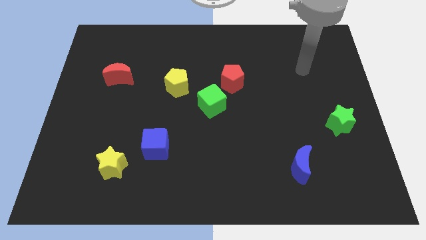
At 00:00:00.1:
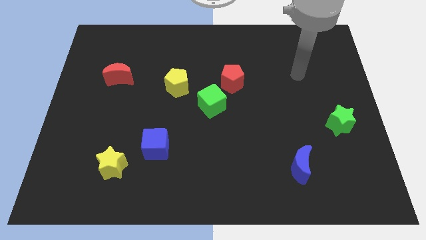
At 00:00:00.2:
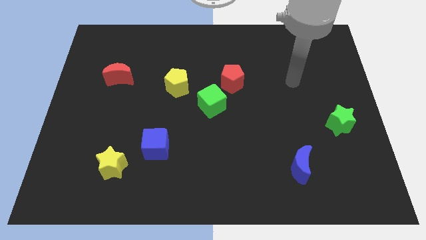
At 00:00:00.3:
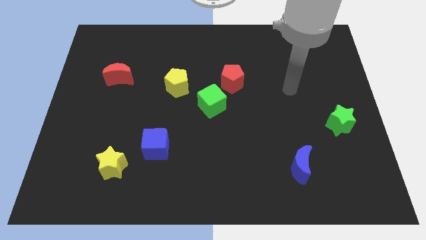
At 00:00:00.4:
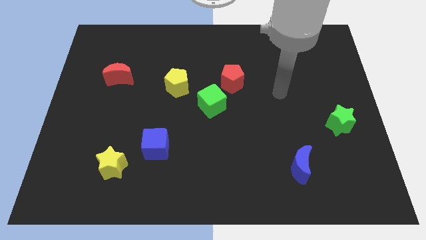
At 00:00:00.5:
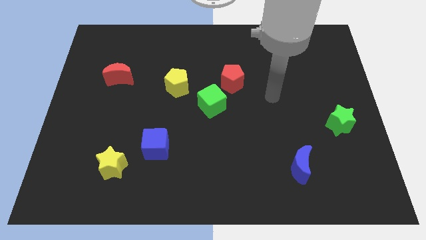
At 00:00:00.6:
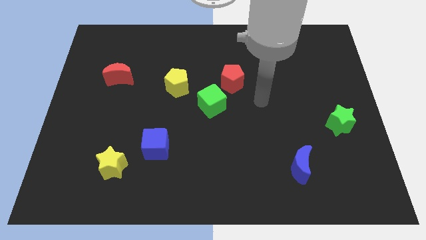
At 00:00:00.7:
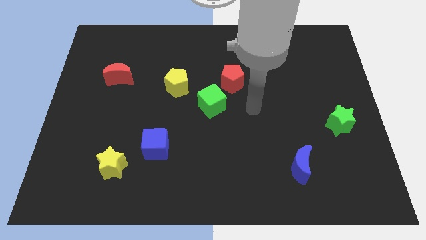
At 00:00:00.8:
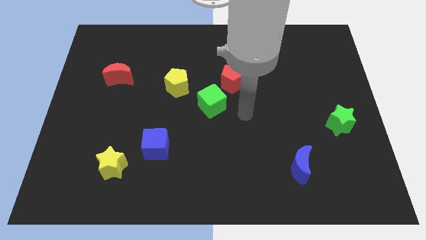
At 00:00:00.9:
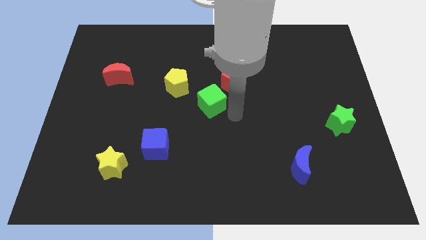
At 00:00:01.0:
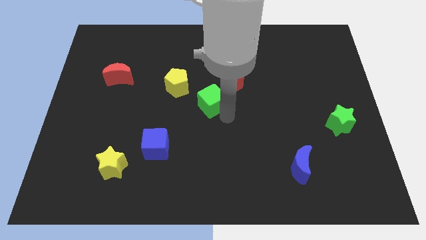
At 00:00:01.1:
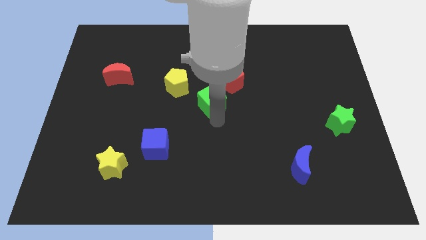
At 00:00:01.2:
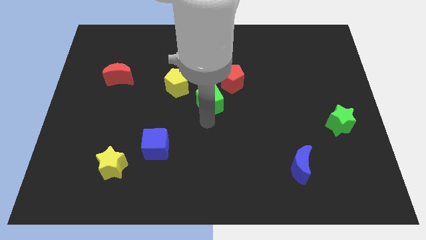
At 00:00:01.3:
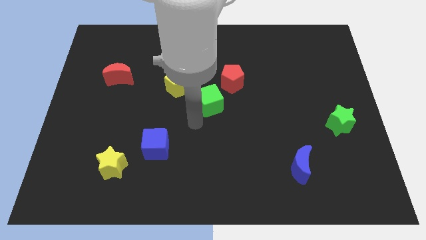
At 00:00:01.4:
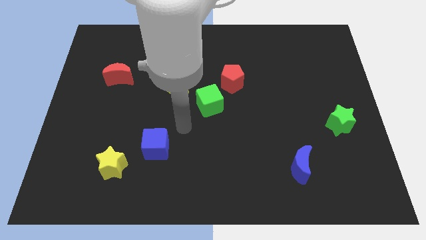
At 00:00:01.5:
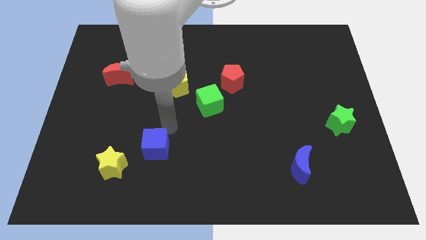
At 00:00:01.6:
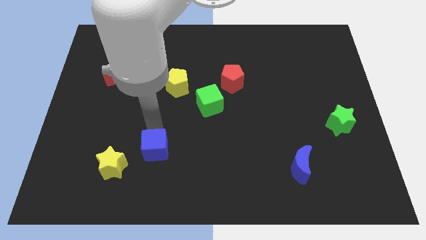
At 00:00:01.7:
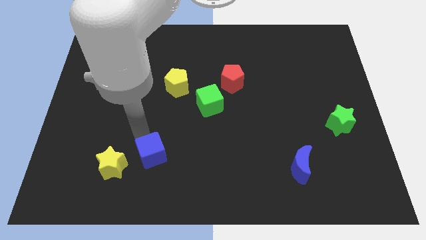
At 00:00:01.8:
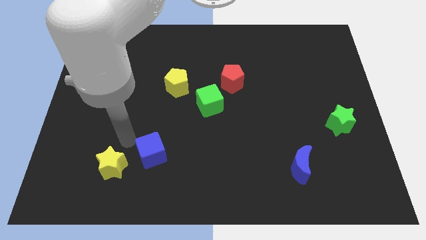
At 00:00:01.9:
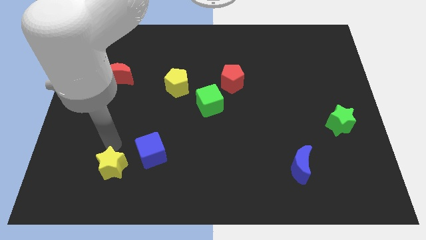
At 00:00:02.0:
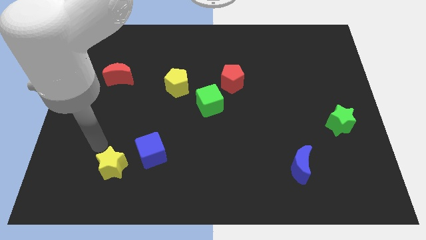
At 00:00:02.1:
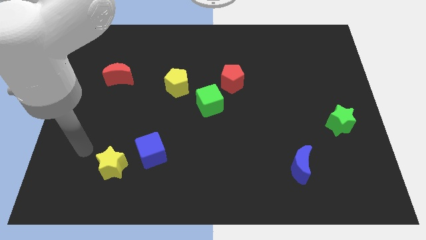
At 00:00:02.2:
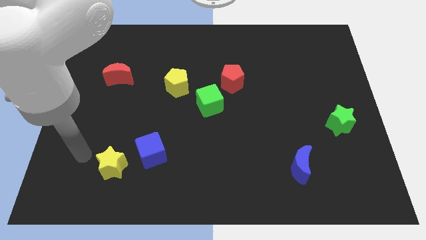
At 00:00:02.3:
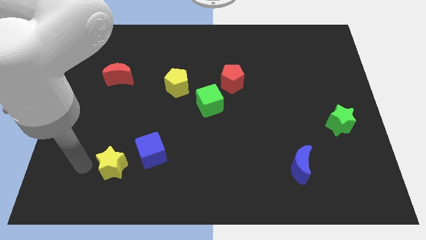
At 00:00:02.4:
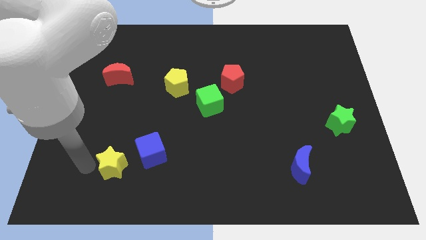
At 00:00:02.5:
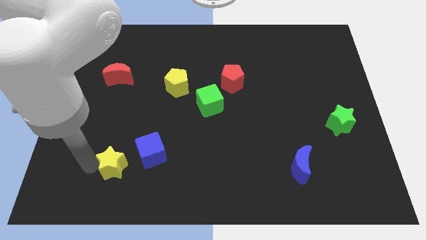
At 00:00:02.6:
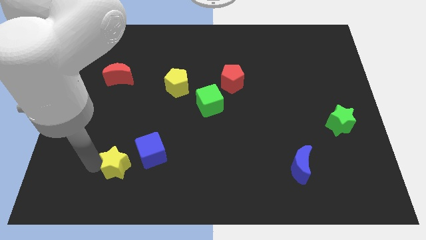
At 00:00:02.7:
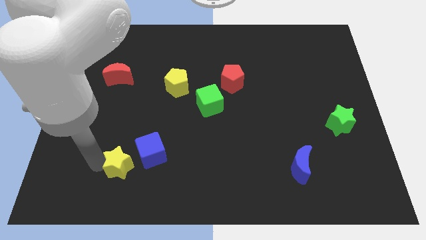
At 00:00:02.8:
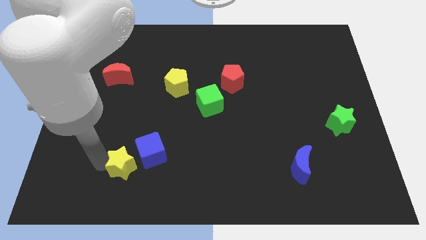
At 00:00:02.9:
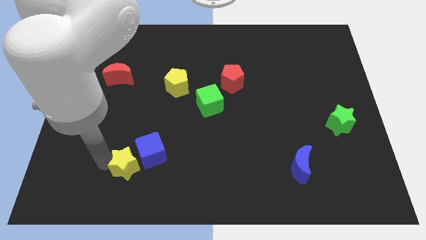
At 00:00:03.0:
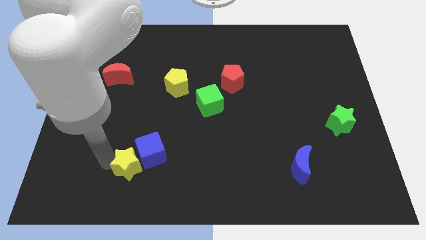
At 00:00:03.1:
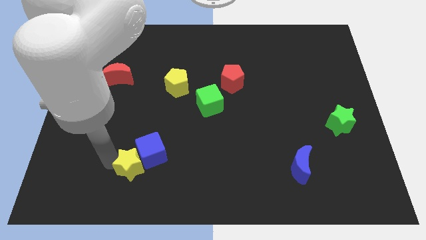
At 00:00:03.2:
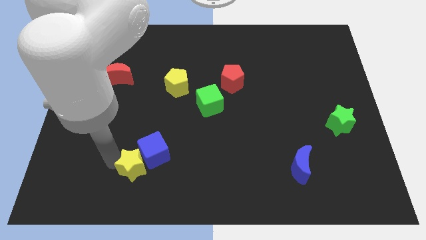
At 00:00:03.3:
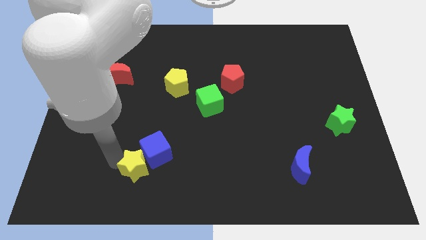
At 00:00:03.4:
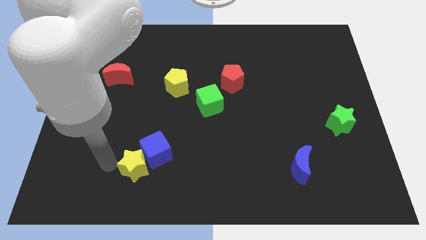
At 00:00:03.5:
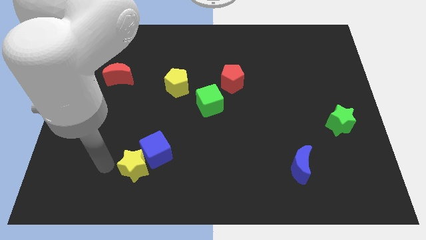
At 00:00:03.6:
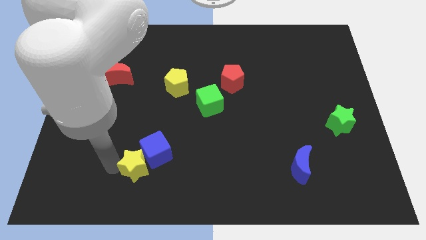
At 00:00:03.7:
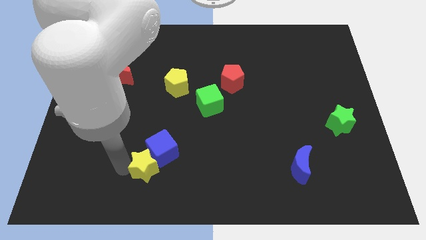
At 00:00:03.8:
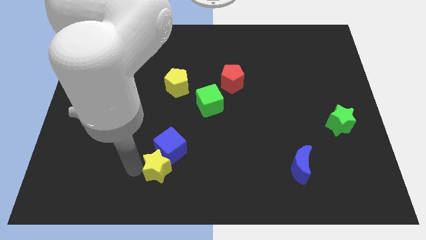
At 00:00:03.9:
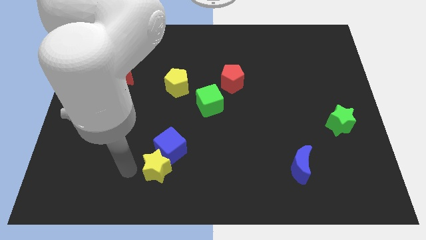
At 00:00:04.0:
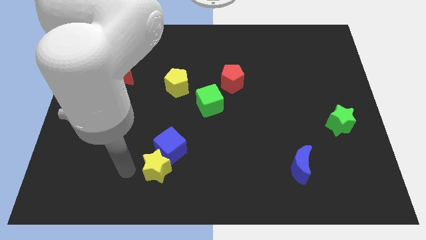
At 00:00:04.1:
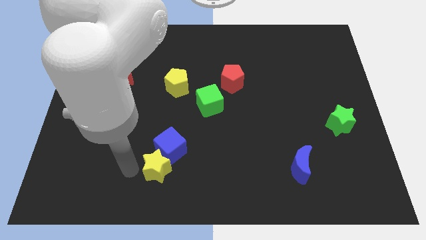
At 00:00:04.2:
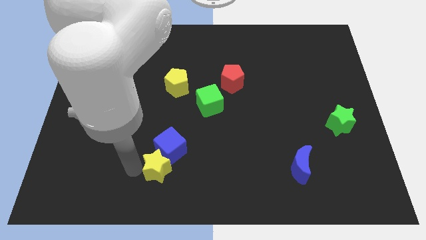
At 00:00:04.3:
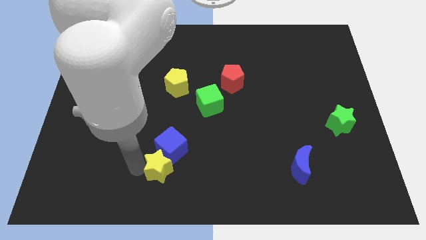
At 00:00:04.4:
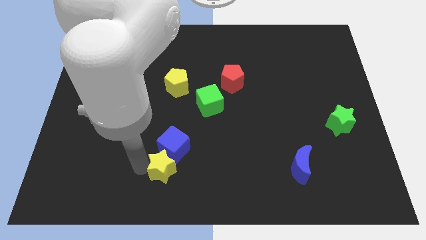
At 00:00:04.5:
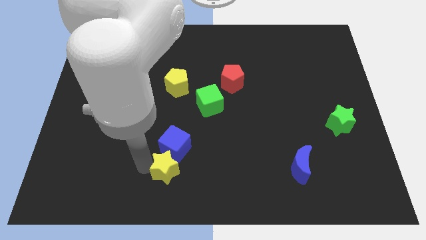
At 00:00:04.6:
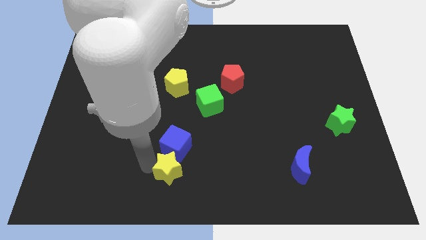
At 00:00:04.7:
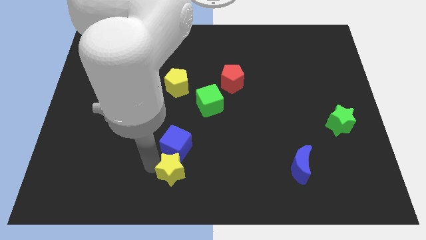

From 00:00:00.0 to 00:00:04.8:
move the yellow star to the bottom right of the blue cube

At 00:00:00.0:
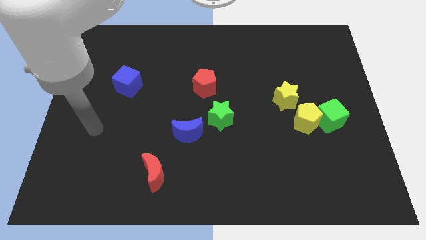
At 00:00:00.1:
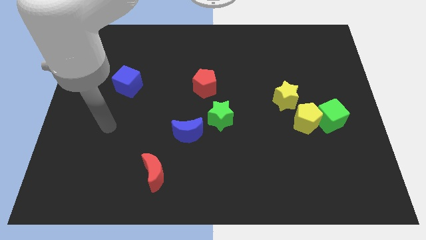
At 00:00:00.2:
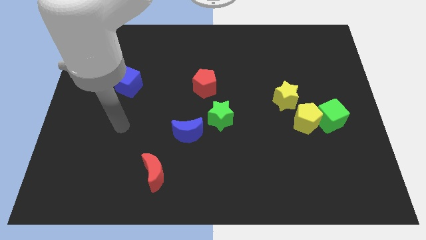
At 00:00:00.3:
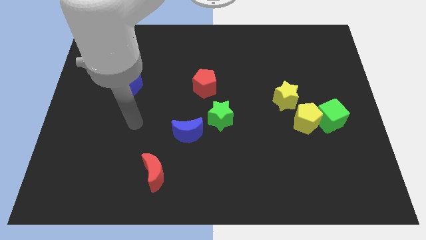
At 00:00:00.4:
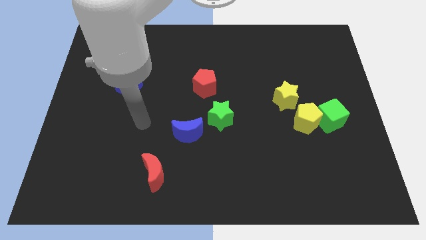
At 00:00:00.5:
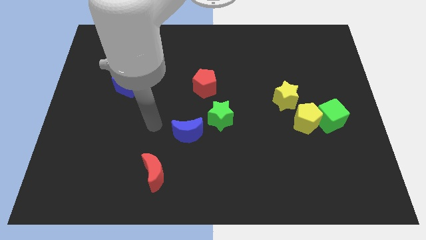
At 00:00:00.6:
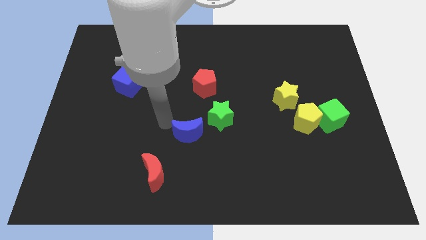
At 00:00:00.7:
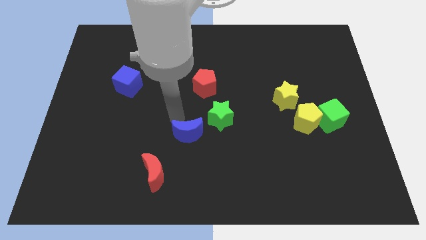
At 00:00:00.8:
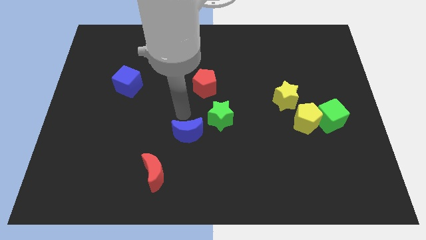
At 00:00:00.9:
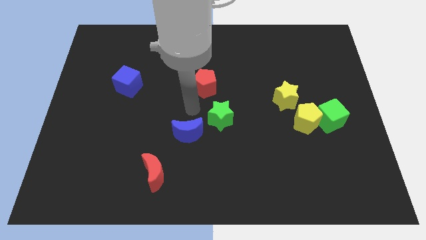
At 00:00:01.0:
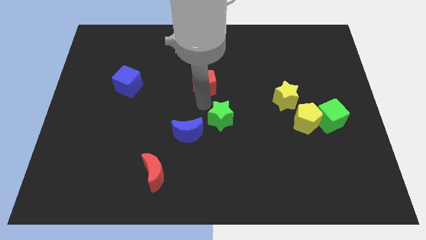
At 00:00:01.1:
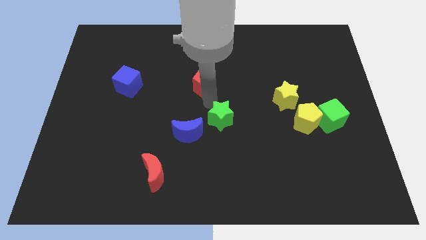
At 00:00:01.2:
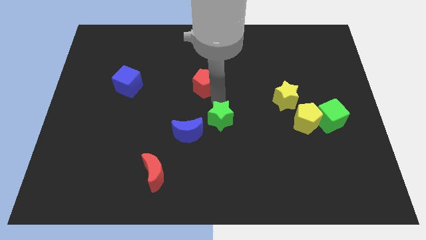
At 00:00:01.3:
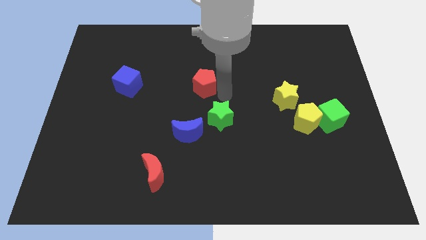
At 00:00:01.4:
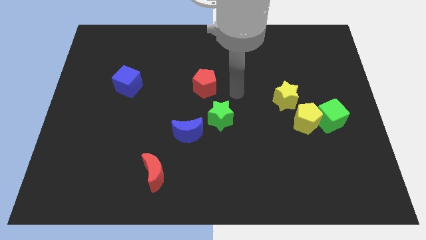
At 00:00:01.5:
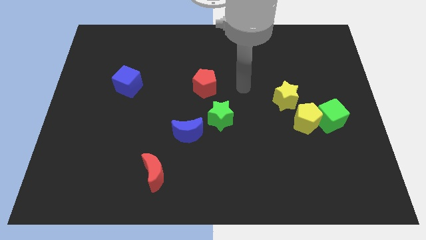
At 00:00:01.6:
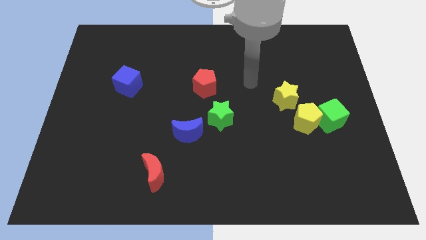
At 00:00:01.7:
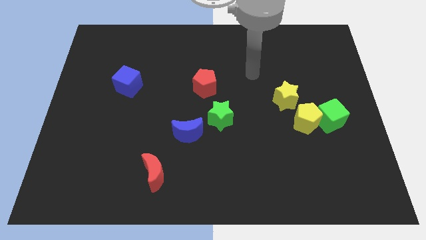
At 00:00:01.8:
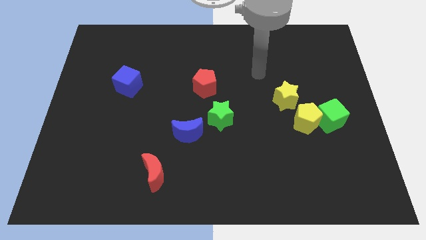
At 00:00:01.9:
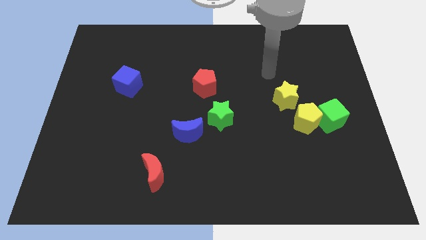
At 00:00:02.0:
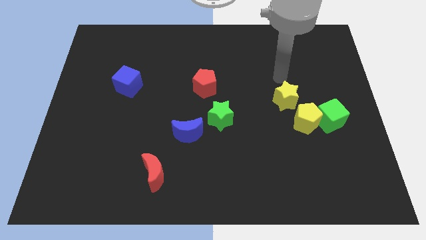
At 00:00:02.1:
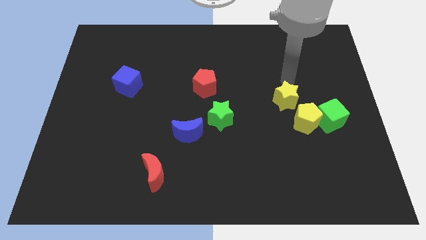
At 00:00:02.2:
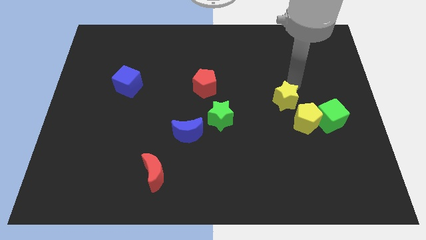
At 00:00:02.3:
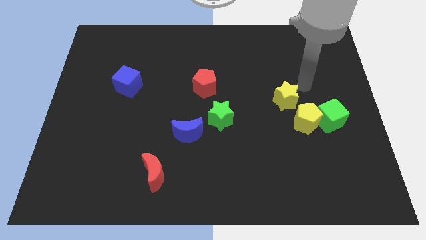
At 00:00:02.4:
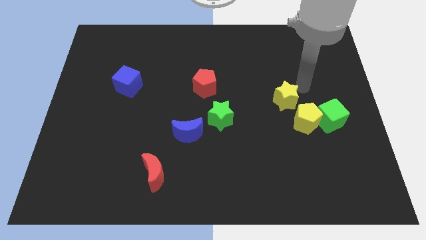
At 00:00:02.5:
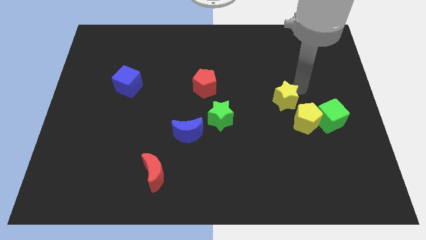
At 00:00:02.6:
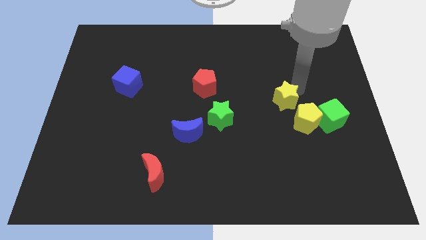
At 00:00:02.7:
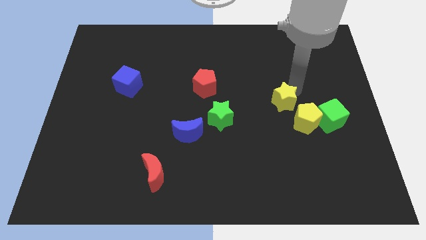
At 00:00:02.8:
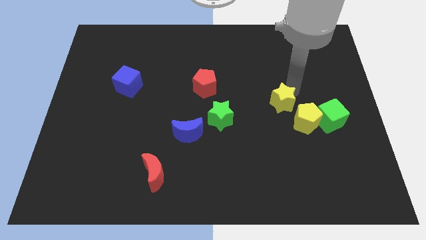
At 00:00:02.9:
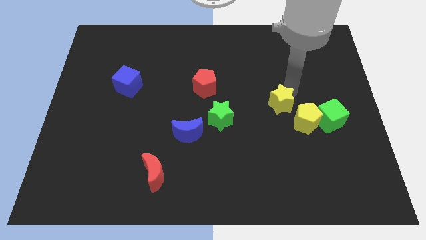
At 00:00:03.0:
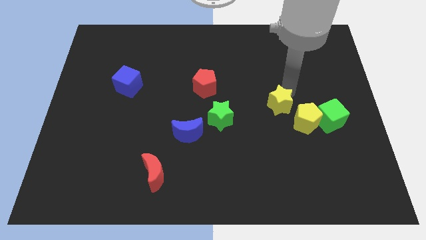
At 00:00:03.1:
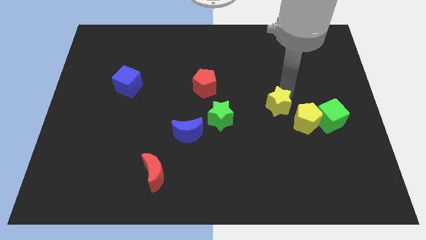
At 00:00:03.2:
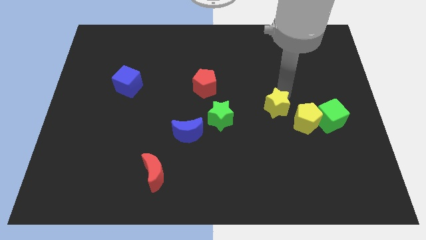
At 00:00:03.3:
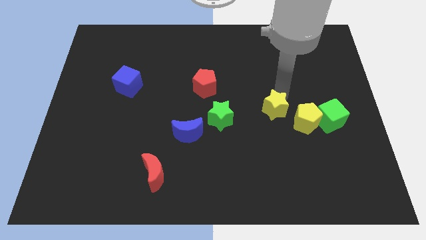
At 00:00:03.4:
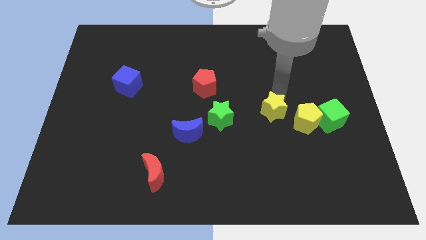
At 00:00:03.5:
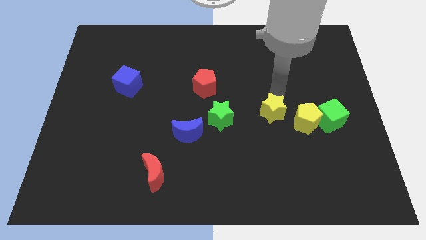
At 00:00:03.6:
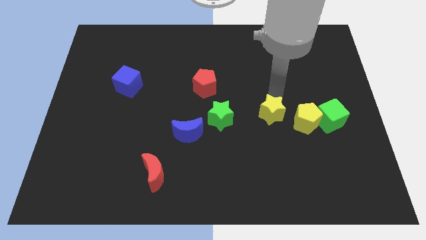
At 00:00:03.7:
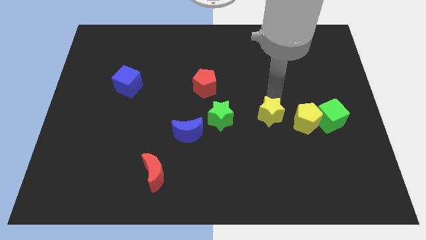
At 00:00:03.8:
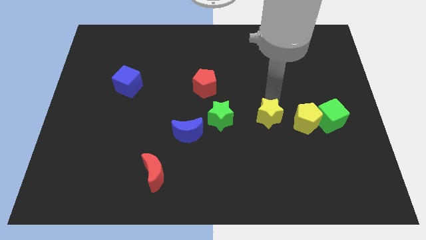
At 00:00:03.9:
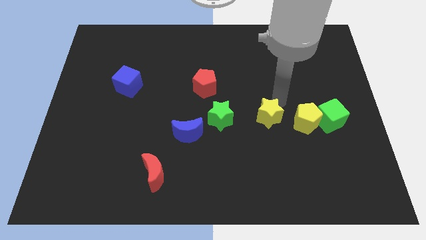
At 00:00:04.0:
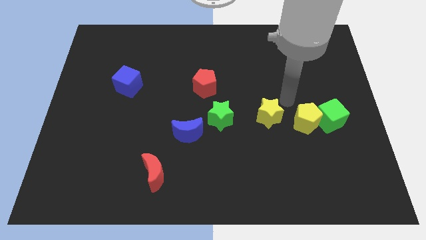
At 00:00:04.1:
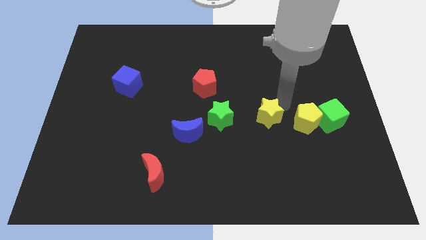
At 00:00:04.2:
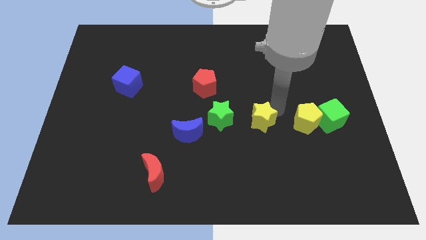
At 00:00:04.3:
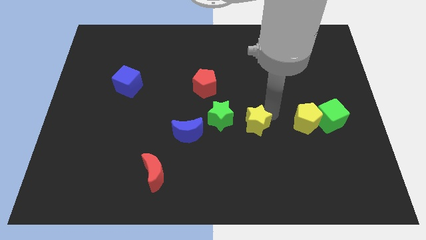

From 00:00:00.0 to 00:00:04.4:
slide the yellow star to the bottom right side of the green star
